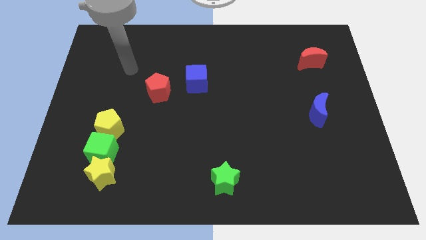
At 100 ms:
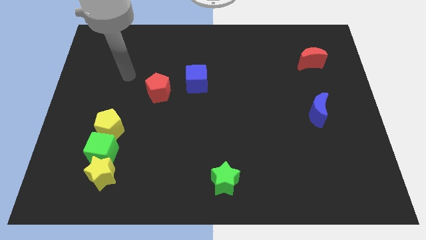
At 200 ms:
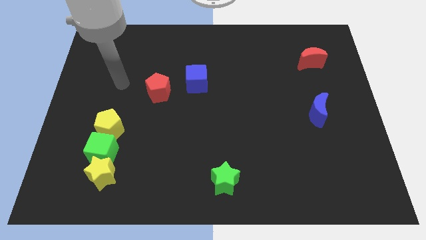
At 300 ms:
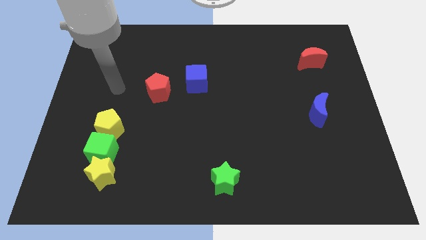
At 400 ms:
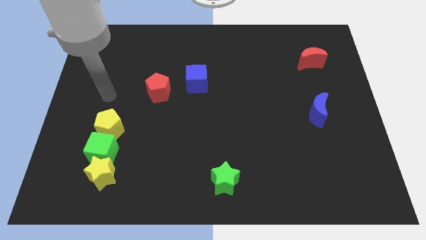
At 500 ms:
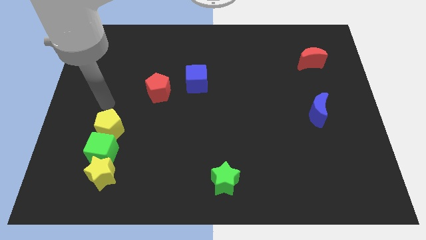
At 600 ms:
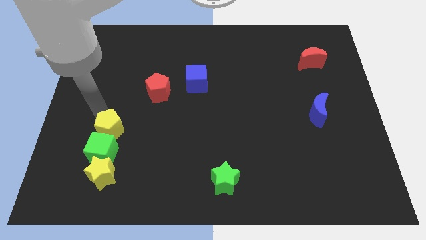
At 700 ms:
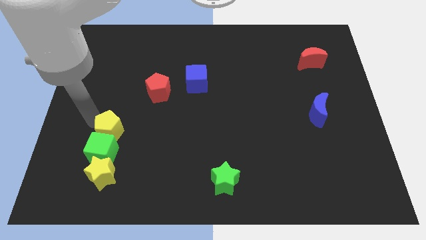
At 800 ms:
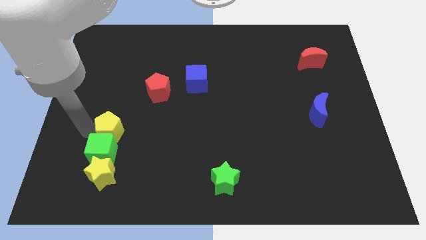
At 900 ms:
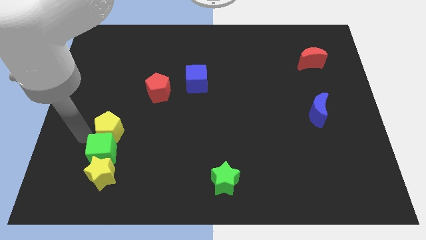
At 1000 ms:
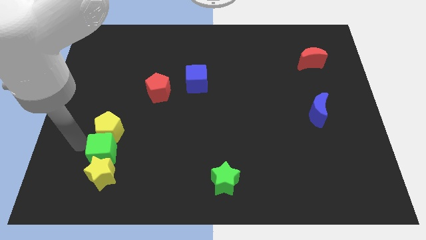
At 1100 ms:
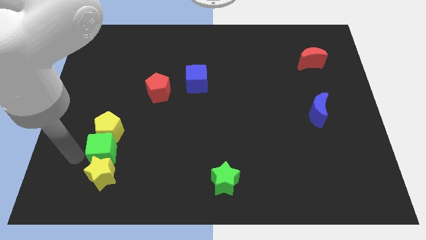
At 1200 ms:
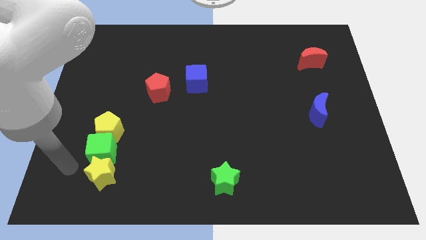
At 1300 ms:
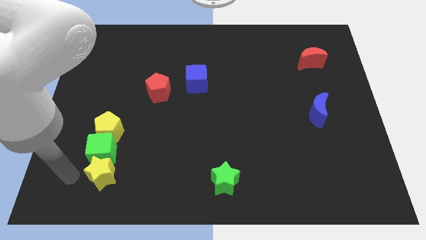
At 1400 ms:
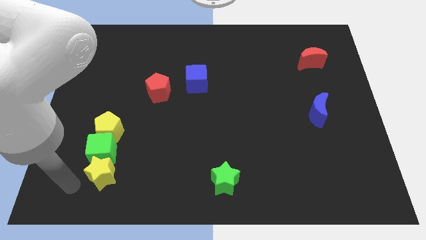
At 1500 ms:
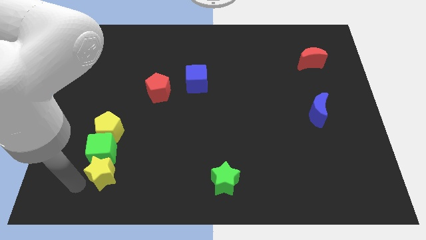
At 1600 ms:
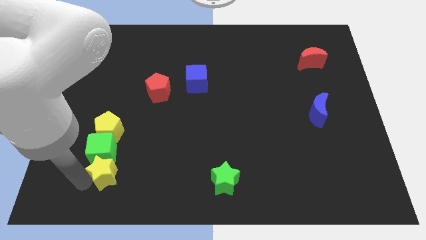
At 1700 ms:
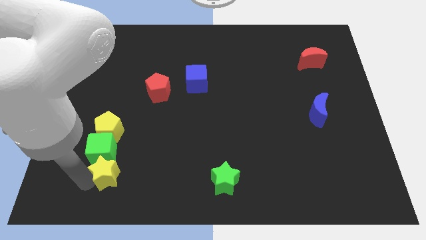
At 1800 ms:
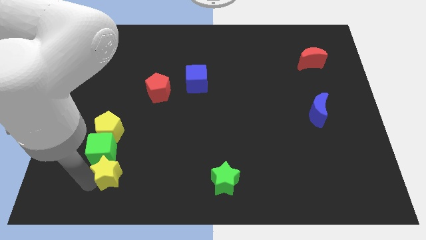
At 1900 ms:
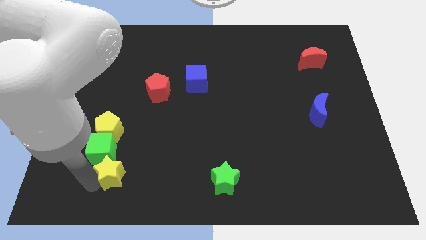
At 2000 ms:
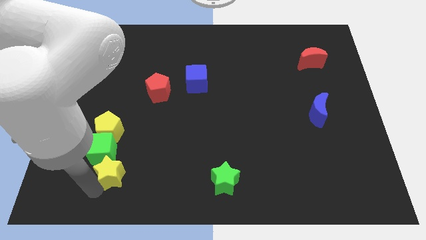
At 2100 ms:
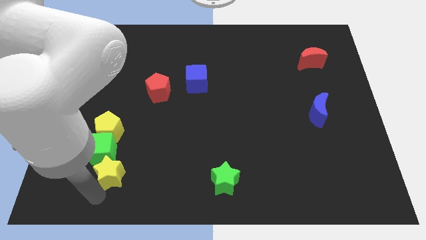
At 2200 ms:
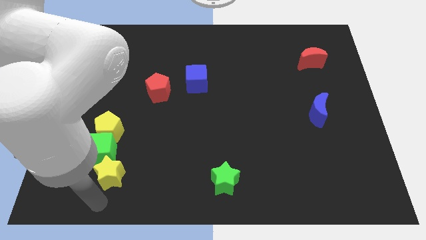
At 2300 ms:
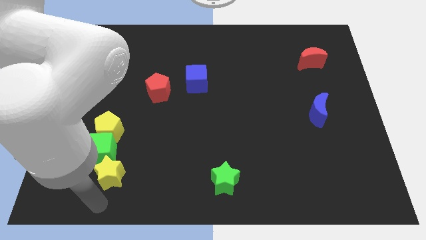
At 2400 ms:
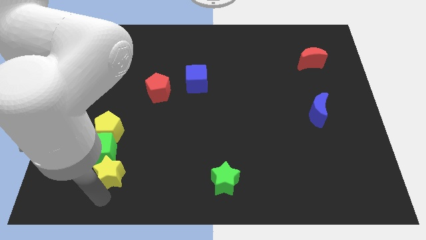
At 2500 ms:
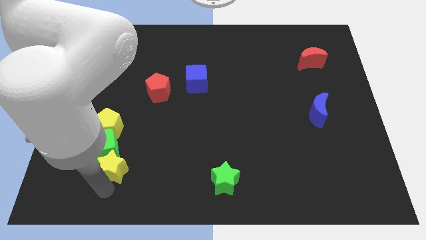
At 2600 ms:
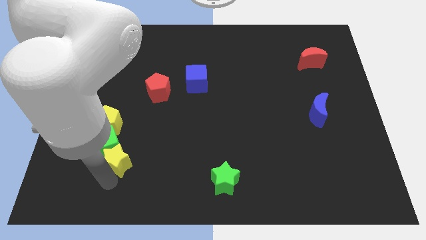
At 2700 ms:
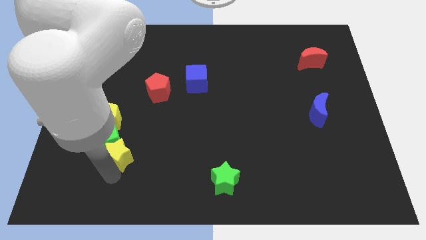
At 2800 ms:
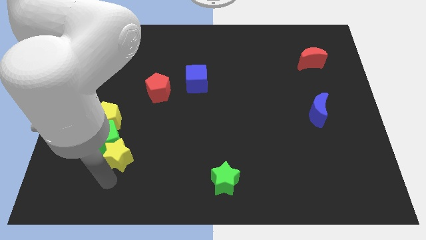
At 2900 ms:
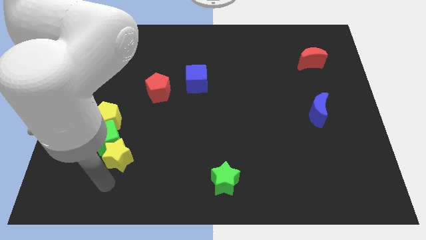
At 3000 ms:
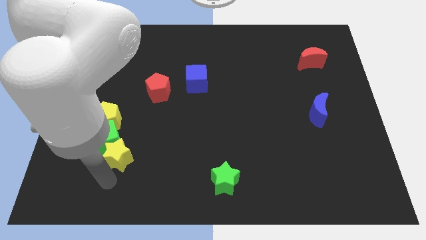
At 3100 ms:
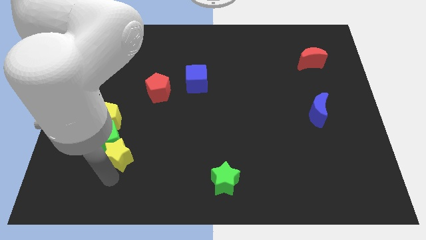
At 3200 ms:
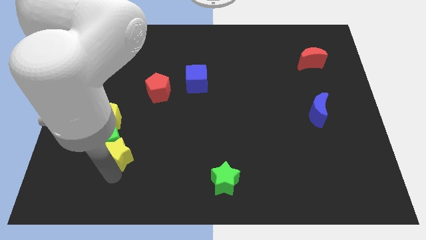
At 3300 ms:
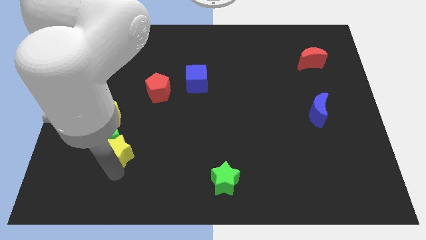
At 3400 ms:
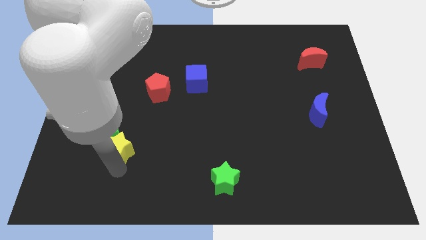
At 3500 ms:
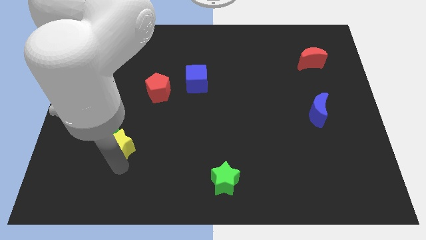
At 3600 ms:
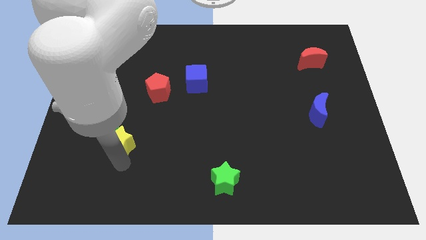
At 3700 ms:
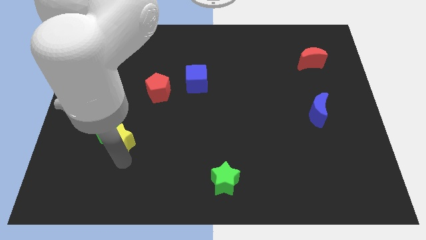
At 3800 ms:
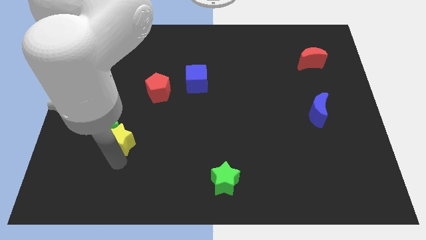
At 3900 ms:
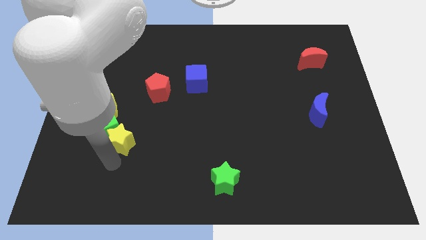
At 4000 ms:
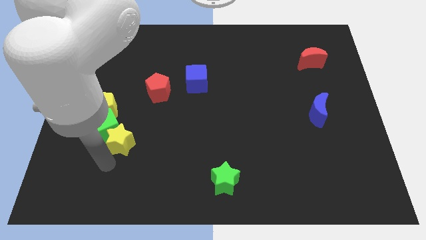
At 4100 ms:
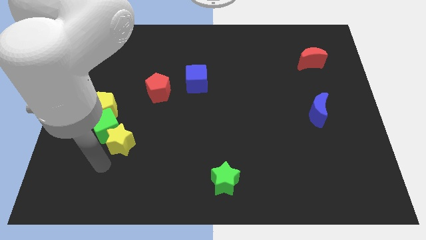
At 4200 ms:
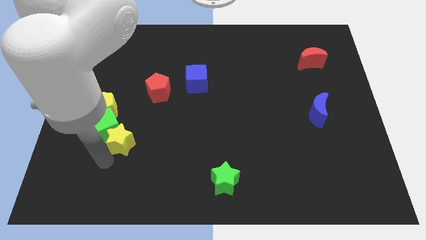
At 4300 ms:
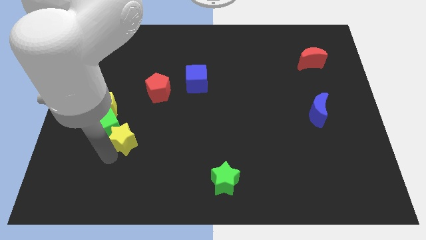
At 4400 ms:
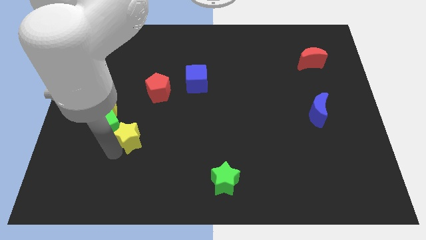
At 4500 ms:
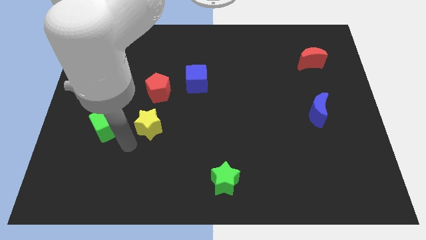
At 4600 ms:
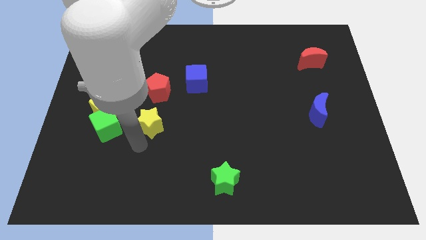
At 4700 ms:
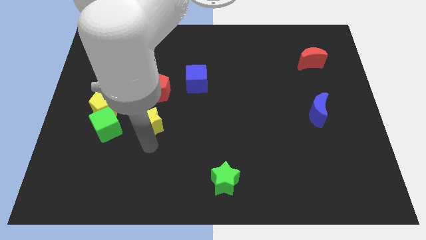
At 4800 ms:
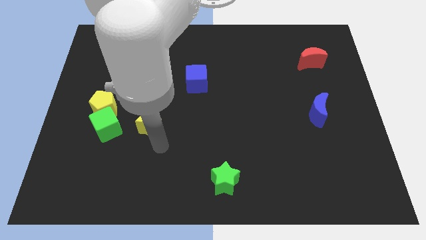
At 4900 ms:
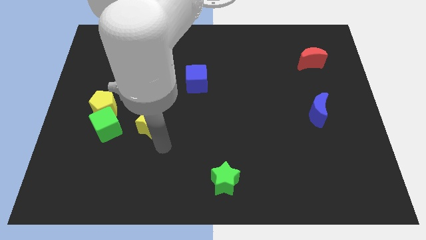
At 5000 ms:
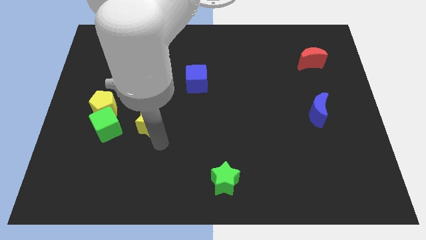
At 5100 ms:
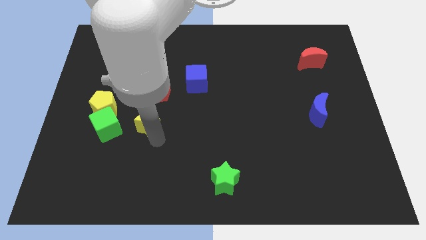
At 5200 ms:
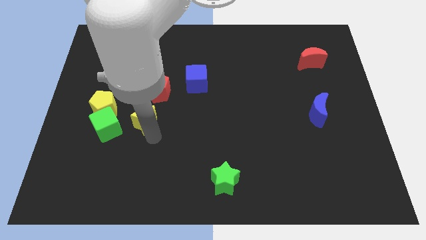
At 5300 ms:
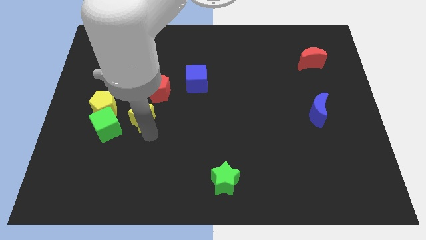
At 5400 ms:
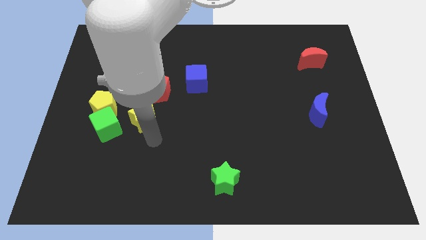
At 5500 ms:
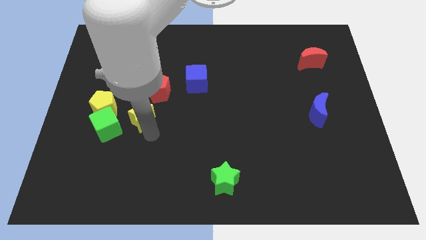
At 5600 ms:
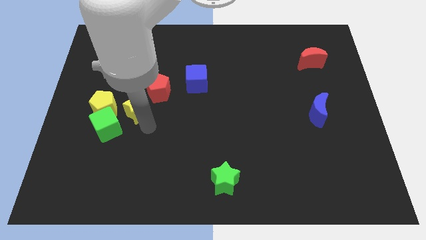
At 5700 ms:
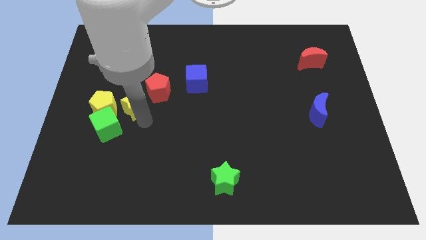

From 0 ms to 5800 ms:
push the yellow star diagonally up and to the right of the yellow pentagon

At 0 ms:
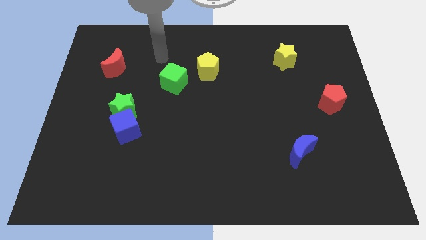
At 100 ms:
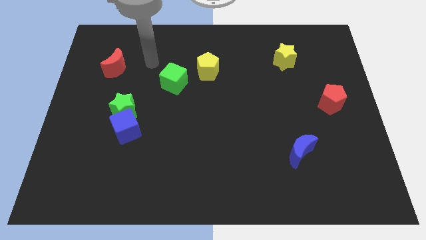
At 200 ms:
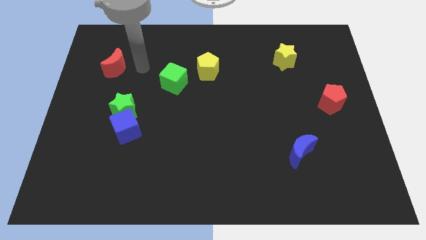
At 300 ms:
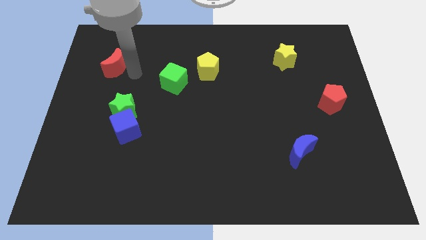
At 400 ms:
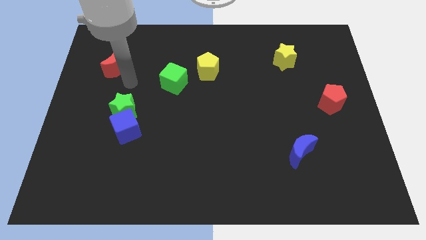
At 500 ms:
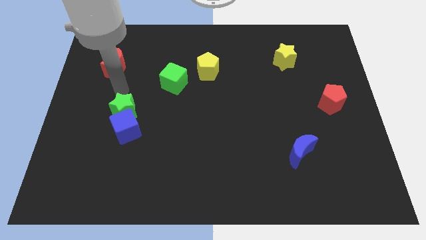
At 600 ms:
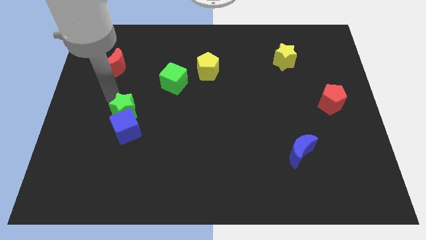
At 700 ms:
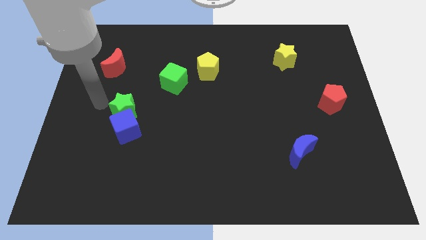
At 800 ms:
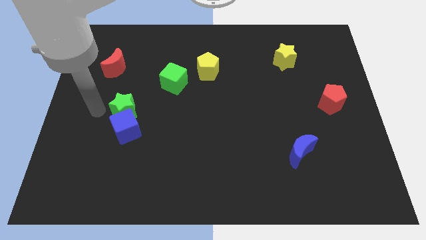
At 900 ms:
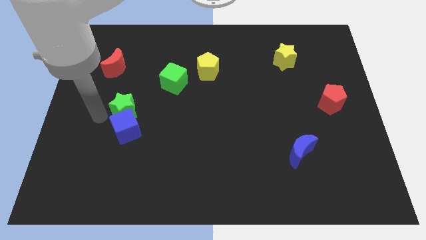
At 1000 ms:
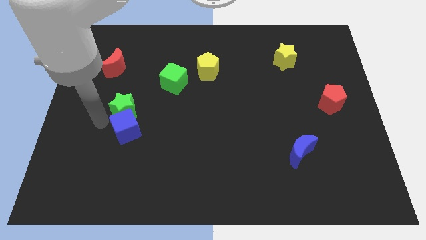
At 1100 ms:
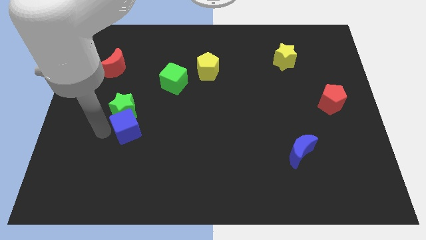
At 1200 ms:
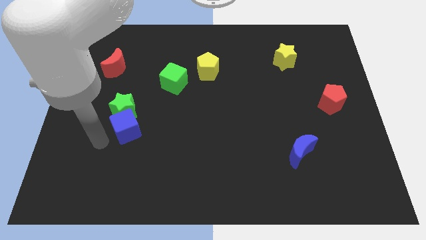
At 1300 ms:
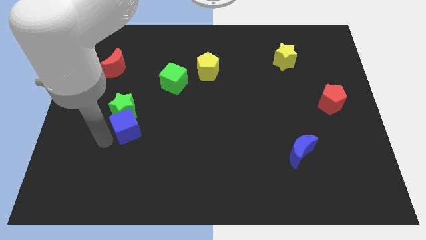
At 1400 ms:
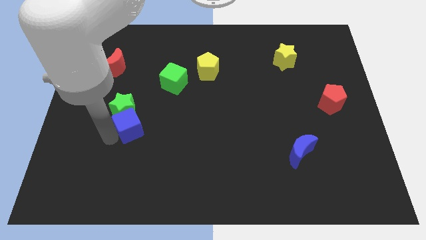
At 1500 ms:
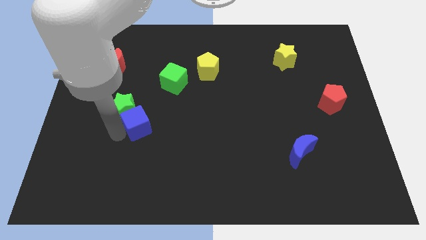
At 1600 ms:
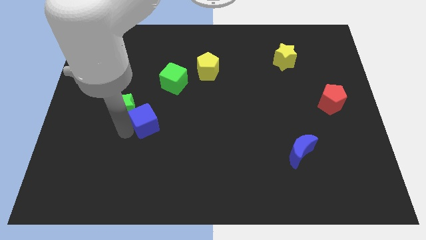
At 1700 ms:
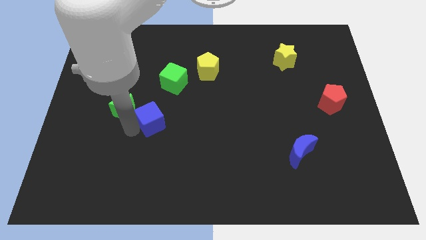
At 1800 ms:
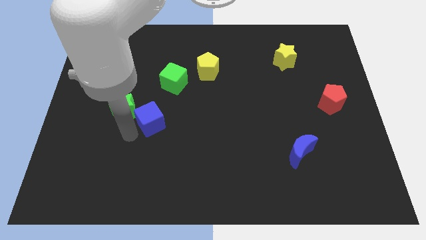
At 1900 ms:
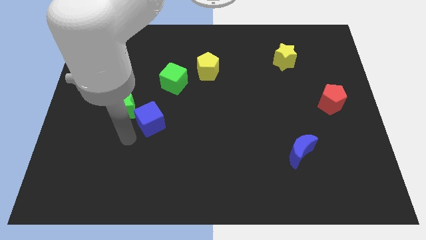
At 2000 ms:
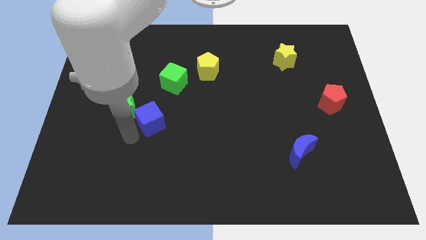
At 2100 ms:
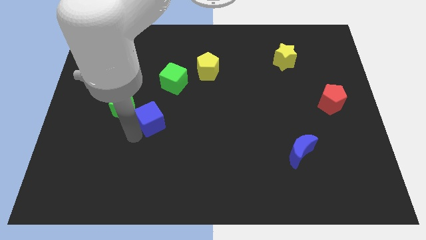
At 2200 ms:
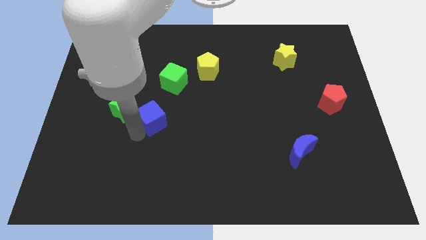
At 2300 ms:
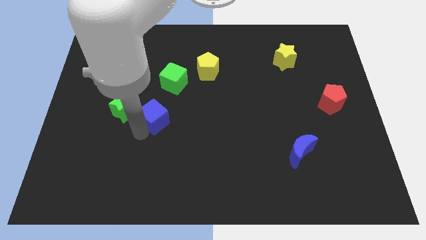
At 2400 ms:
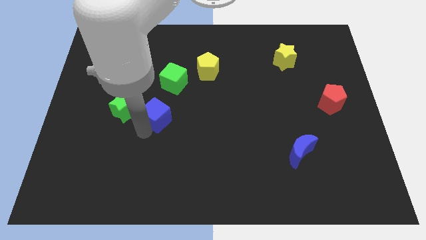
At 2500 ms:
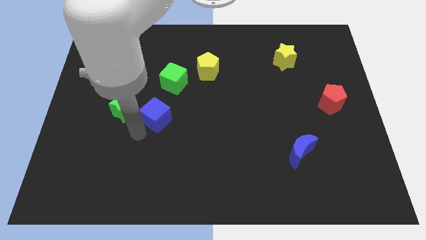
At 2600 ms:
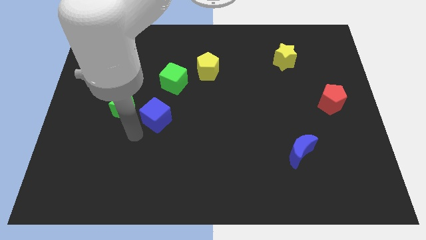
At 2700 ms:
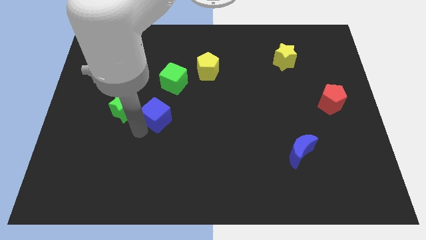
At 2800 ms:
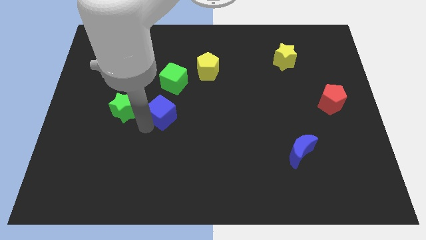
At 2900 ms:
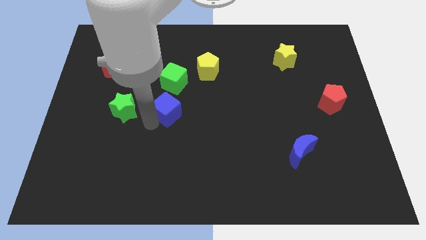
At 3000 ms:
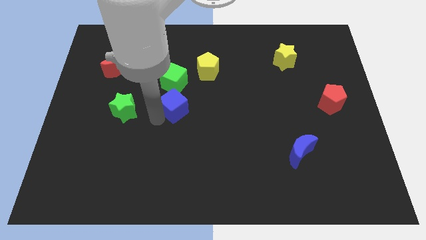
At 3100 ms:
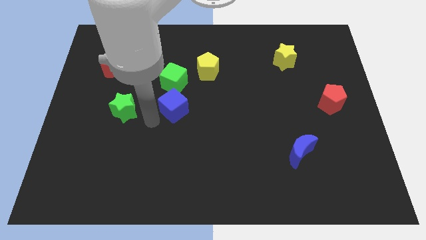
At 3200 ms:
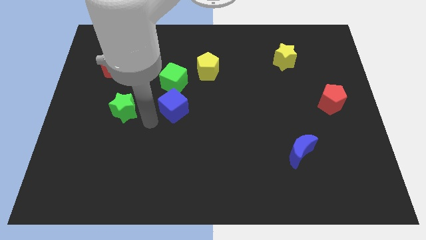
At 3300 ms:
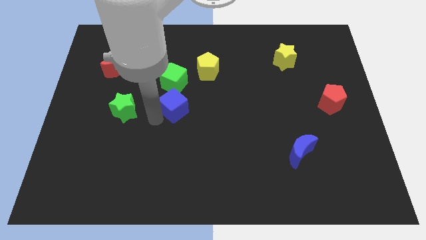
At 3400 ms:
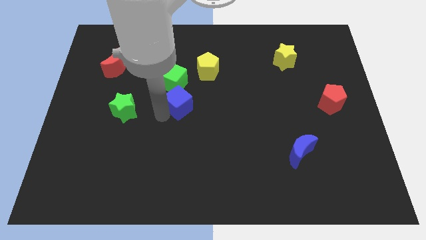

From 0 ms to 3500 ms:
move the blue cube diagonally down and to the right of the green cube
